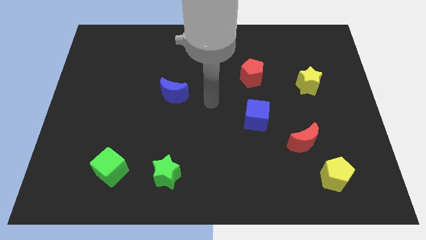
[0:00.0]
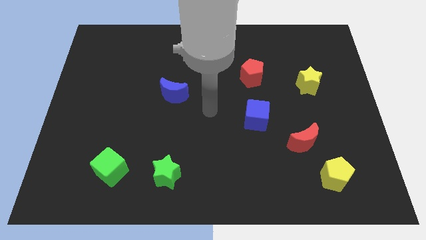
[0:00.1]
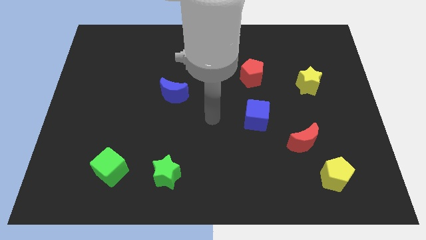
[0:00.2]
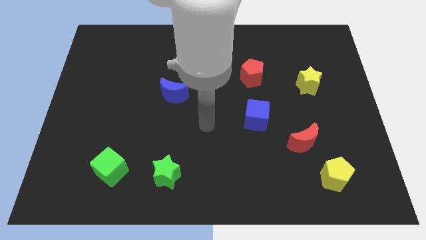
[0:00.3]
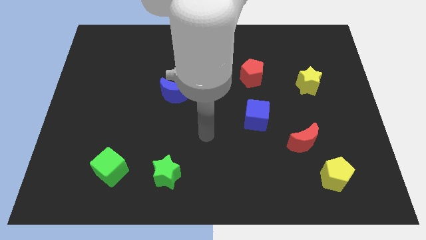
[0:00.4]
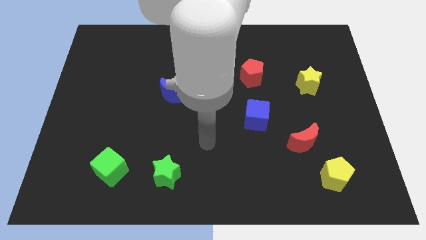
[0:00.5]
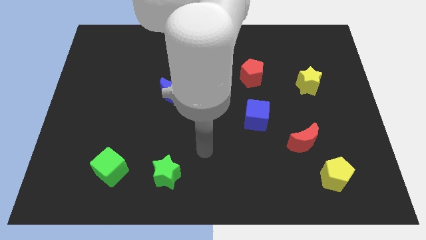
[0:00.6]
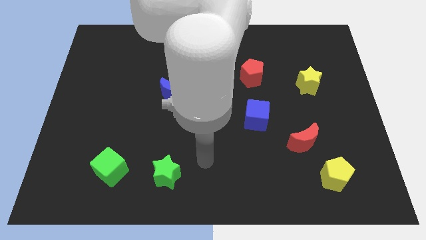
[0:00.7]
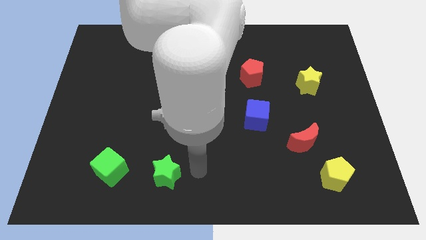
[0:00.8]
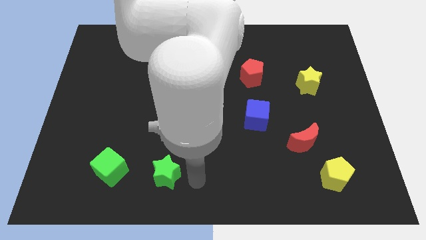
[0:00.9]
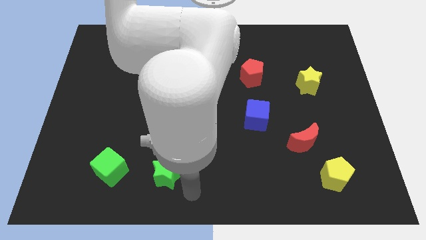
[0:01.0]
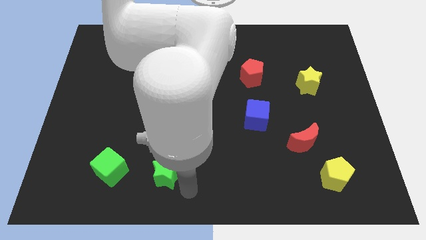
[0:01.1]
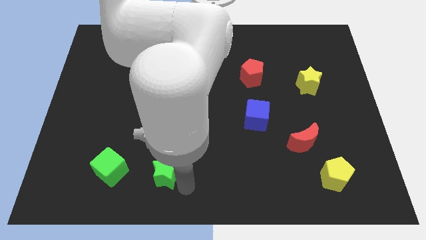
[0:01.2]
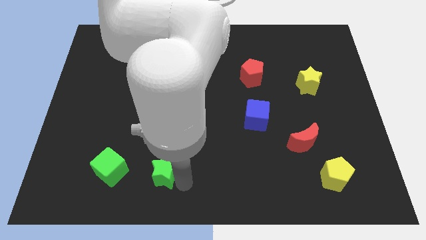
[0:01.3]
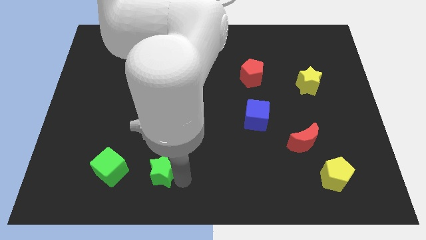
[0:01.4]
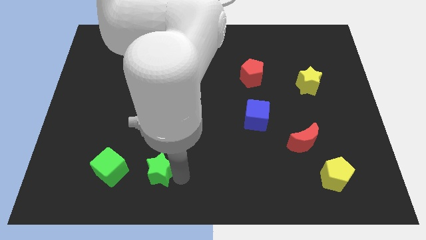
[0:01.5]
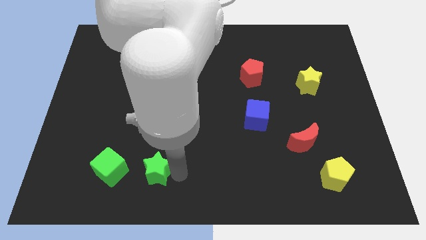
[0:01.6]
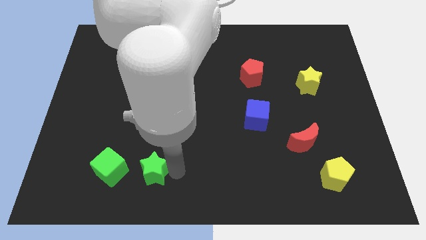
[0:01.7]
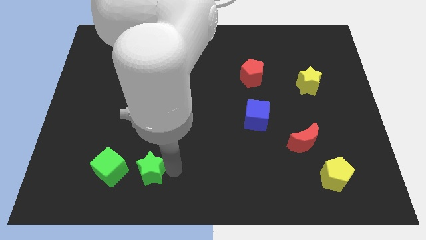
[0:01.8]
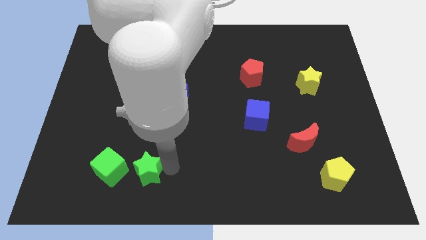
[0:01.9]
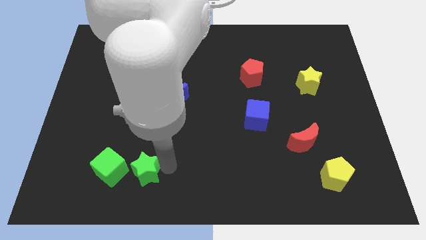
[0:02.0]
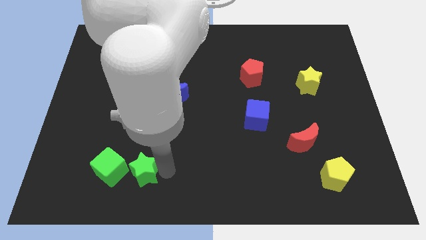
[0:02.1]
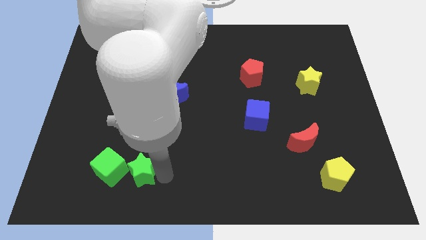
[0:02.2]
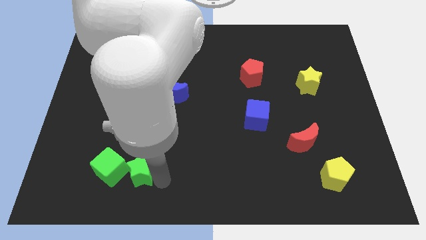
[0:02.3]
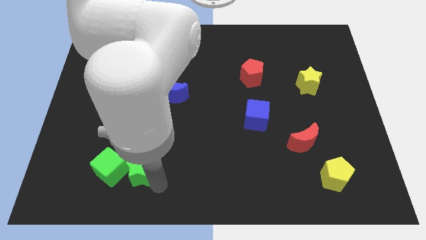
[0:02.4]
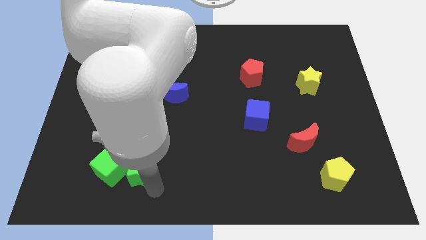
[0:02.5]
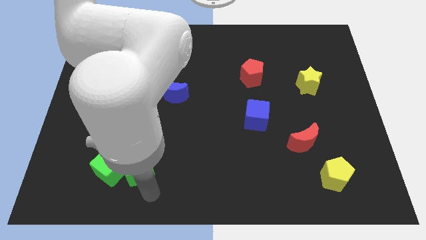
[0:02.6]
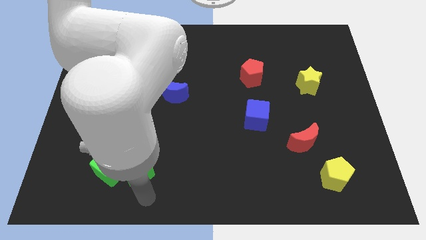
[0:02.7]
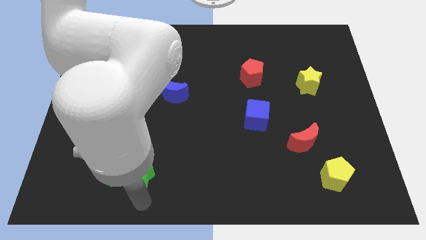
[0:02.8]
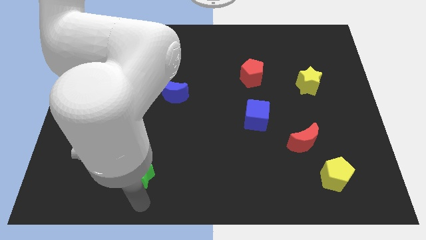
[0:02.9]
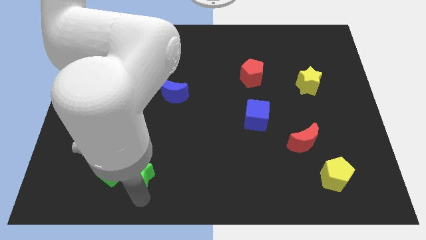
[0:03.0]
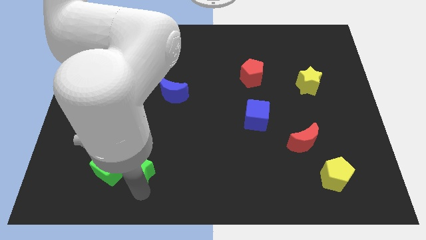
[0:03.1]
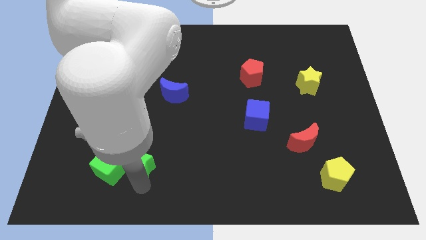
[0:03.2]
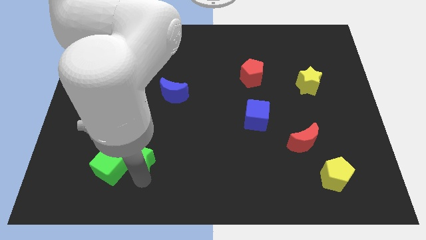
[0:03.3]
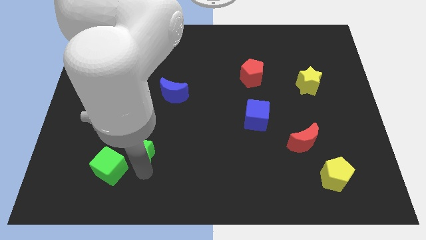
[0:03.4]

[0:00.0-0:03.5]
push the green star a little bit up and then to the left
